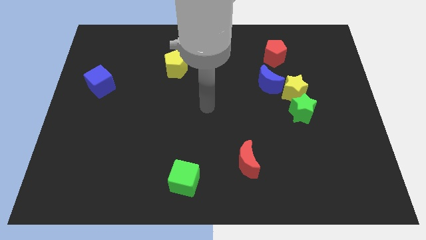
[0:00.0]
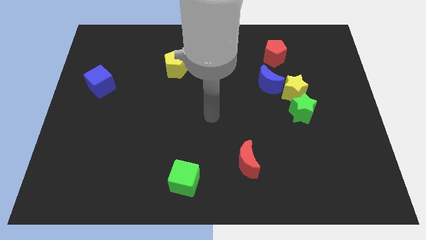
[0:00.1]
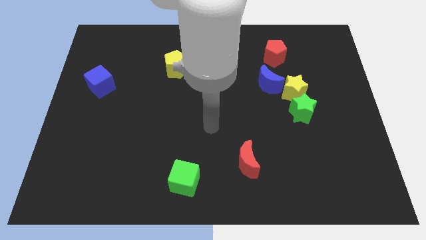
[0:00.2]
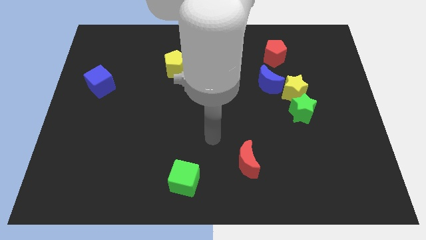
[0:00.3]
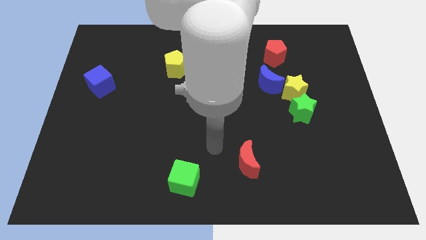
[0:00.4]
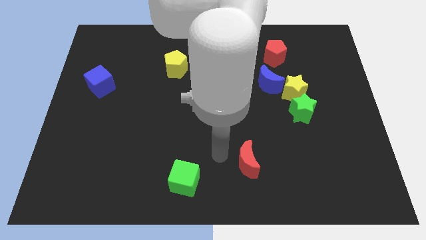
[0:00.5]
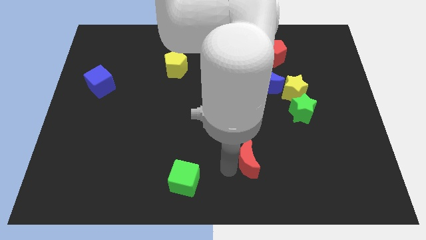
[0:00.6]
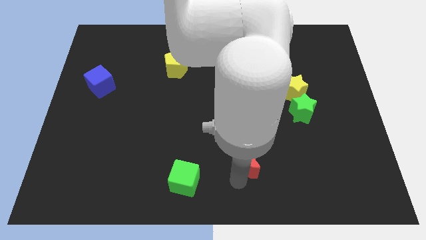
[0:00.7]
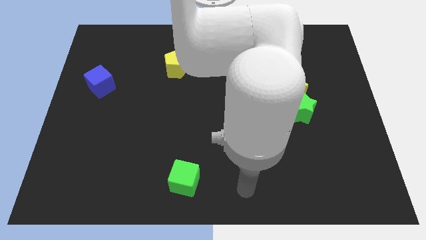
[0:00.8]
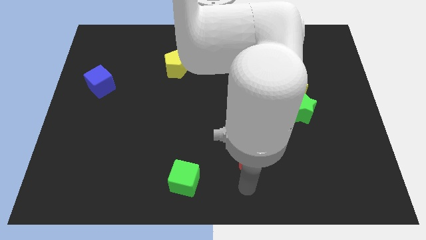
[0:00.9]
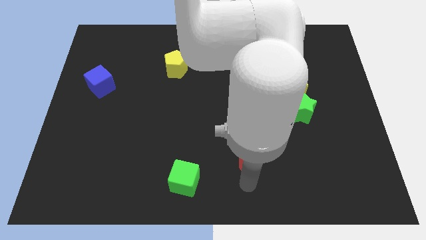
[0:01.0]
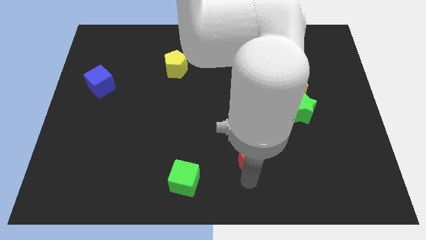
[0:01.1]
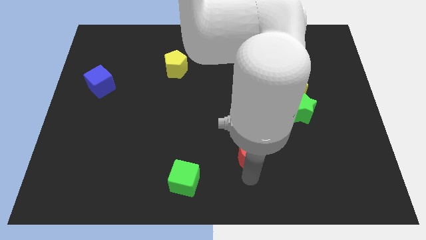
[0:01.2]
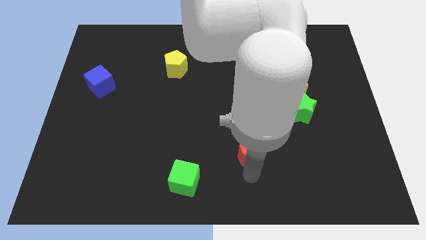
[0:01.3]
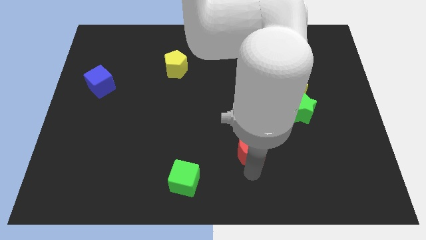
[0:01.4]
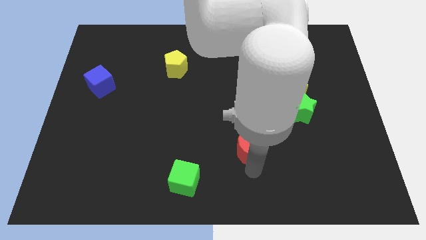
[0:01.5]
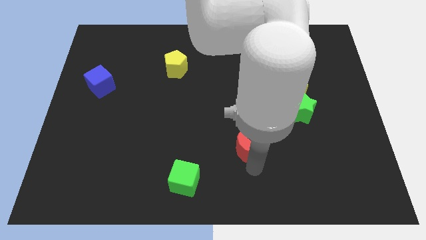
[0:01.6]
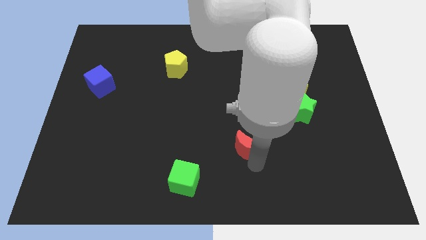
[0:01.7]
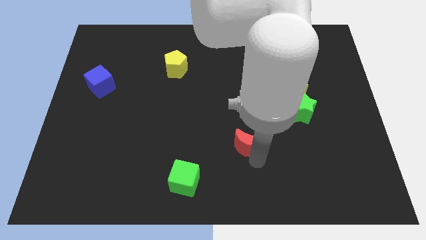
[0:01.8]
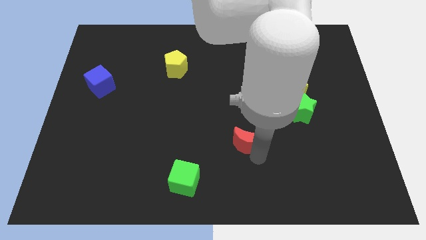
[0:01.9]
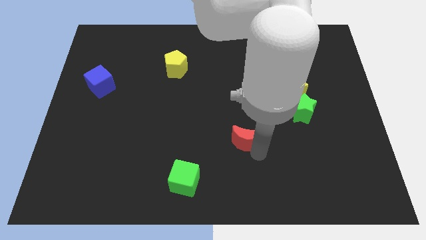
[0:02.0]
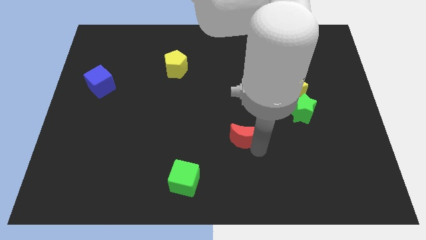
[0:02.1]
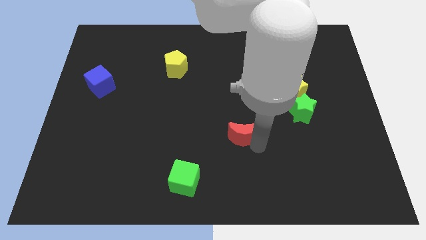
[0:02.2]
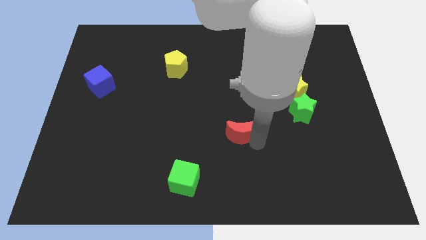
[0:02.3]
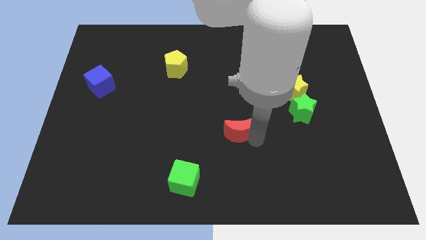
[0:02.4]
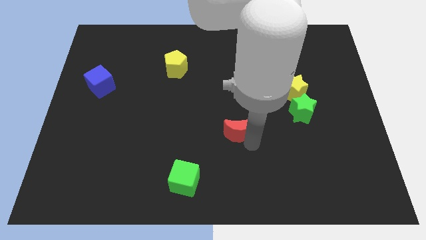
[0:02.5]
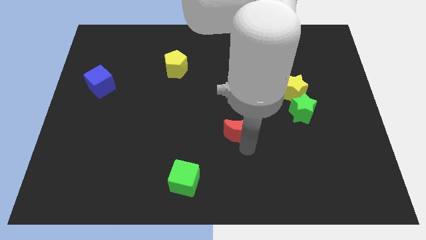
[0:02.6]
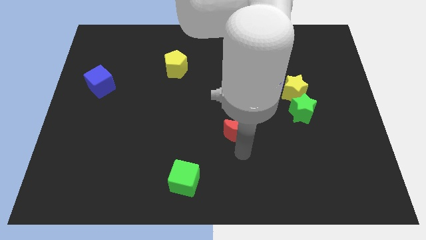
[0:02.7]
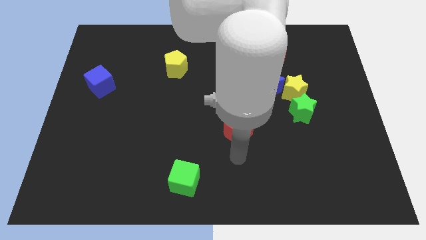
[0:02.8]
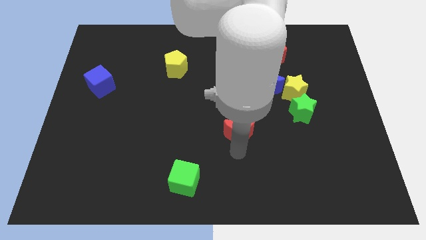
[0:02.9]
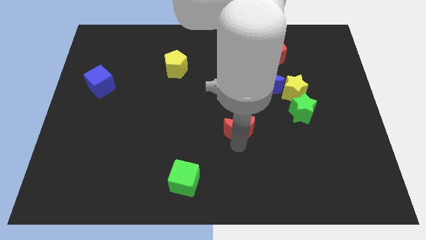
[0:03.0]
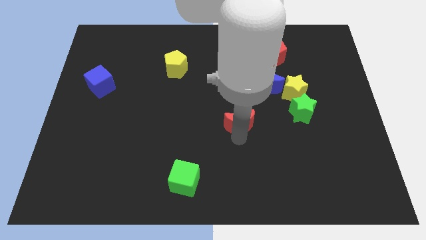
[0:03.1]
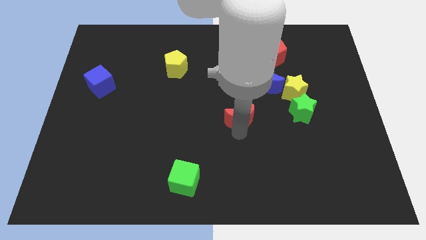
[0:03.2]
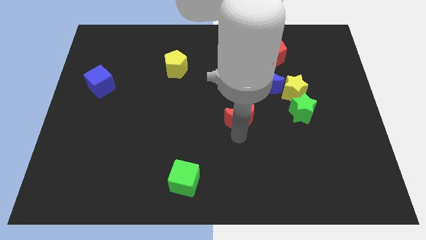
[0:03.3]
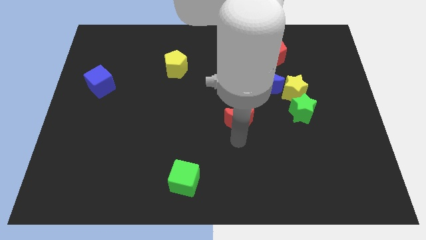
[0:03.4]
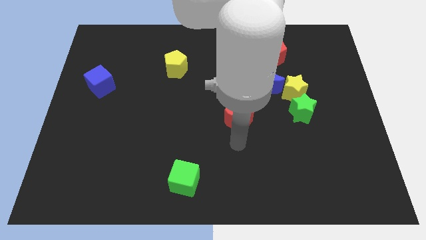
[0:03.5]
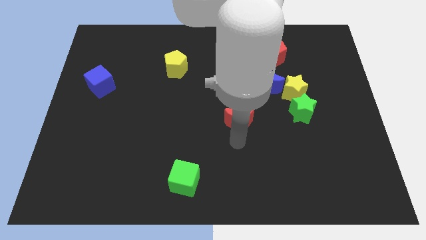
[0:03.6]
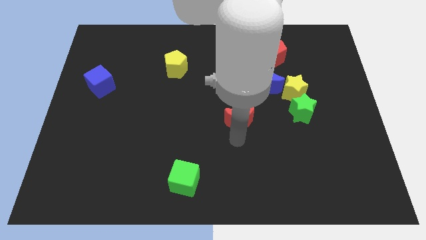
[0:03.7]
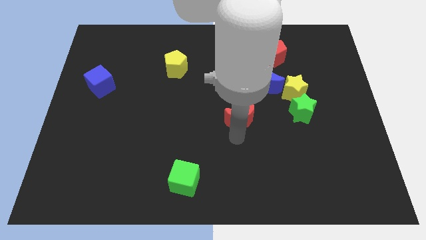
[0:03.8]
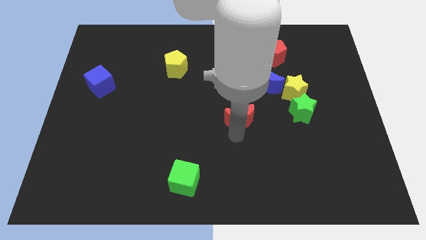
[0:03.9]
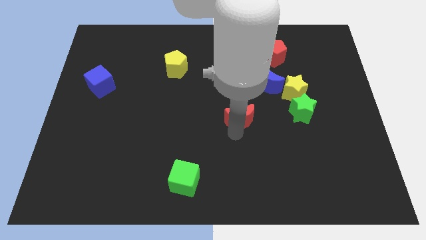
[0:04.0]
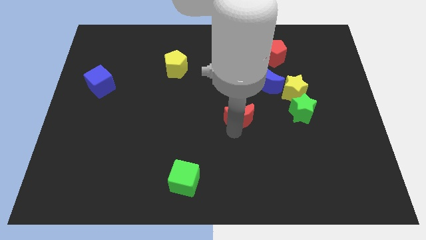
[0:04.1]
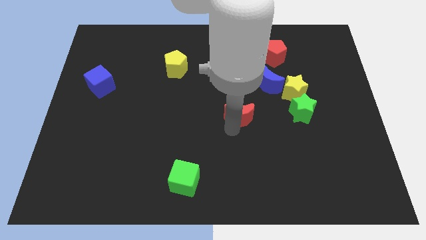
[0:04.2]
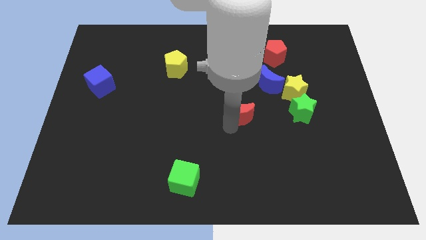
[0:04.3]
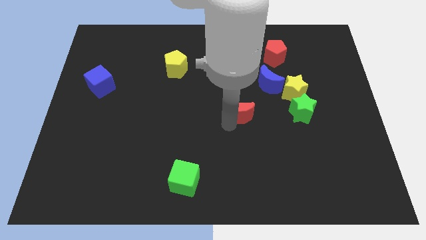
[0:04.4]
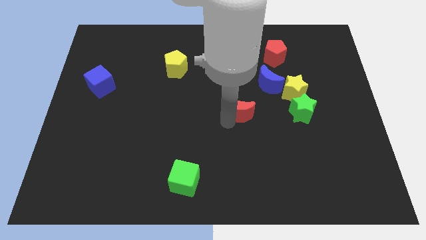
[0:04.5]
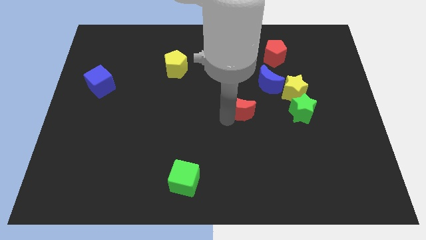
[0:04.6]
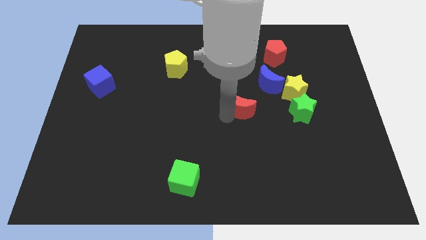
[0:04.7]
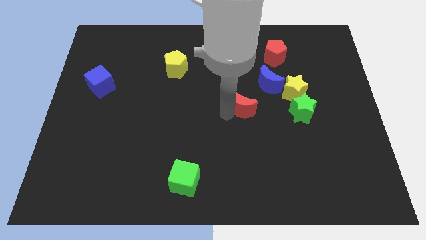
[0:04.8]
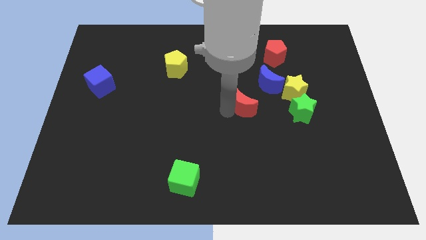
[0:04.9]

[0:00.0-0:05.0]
push the red moon just left of the yellow star

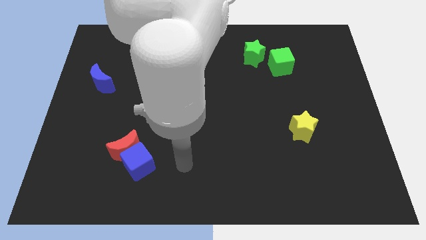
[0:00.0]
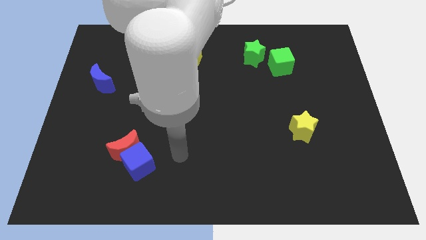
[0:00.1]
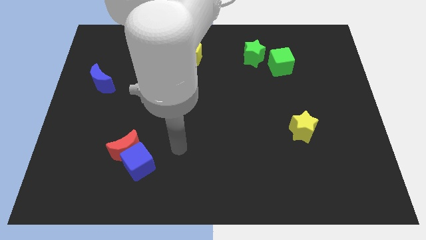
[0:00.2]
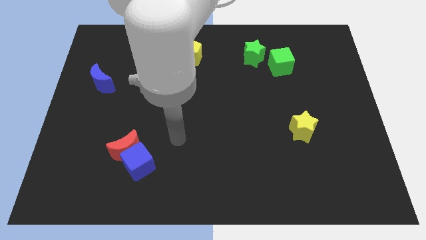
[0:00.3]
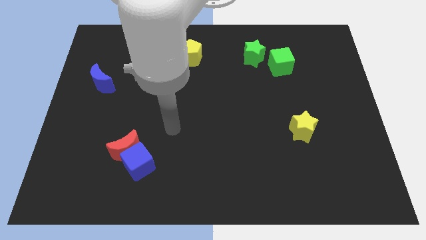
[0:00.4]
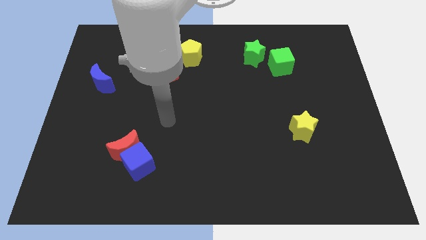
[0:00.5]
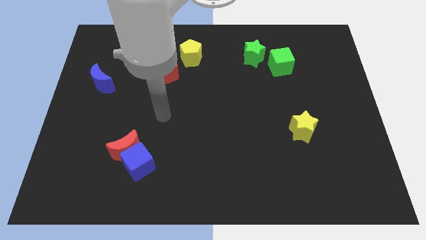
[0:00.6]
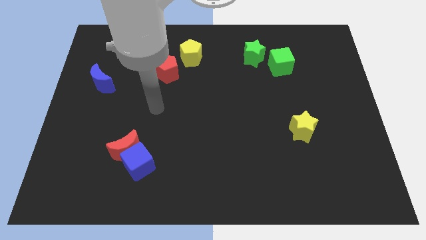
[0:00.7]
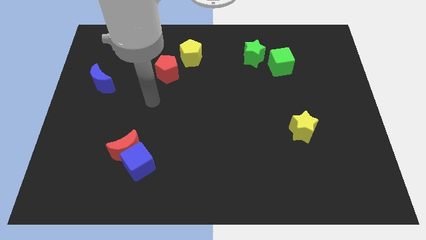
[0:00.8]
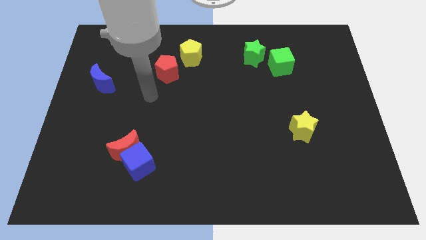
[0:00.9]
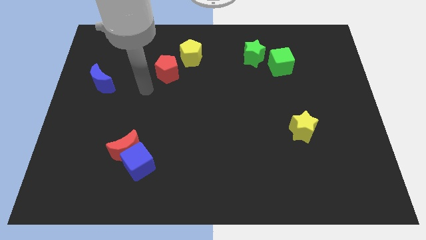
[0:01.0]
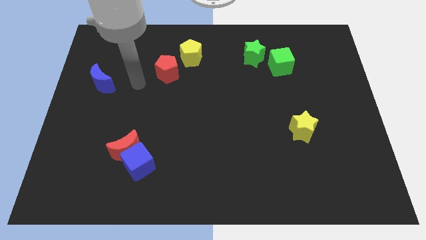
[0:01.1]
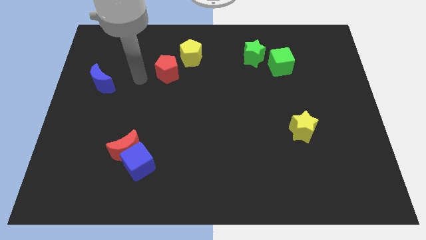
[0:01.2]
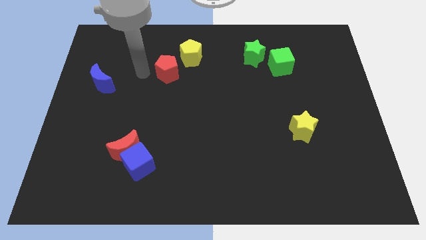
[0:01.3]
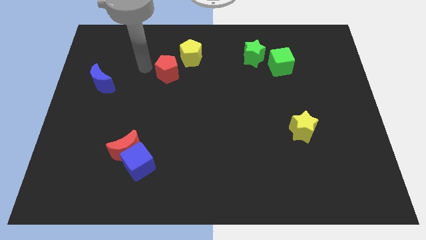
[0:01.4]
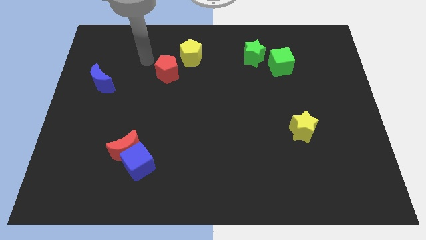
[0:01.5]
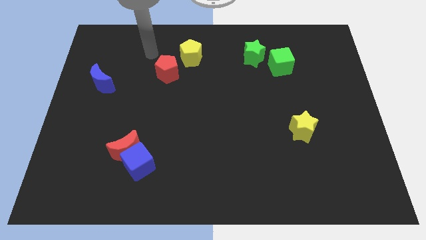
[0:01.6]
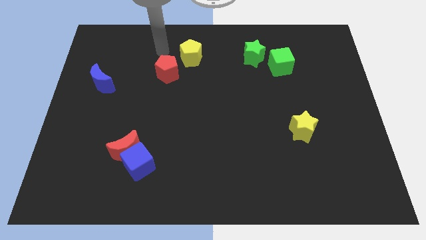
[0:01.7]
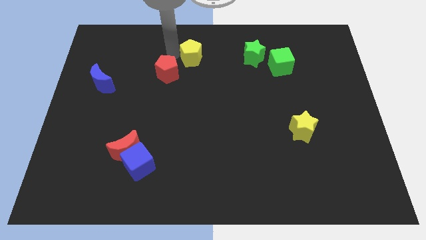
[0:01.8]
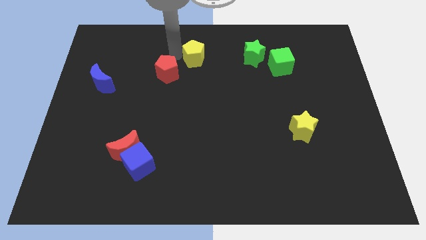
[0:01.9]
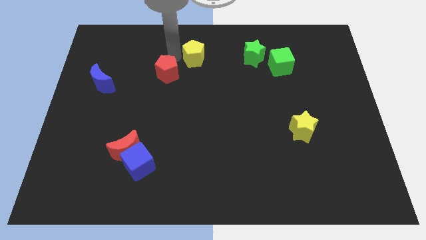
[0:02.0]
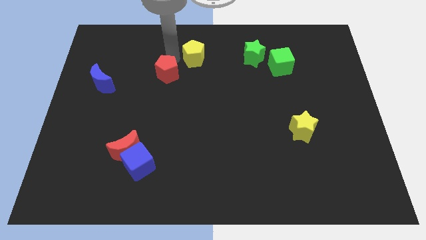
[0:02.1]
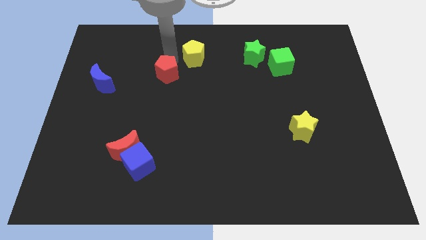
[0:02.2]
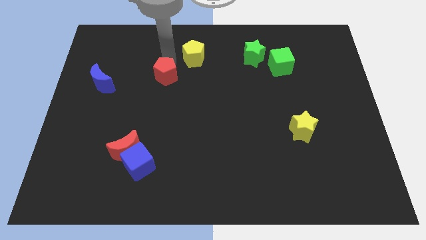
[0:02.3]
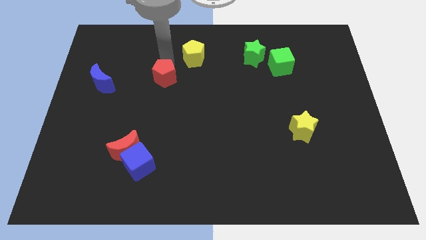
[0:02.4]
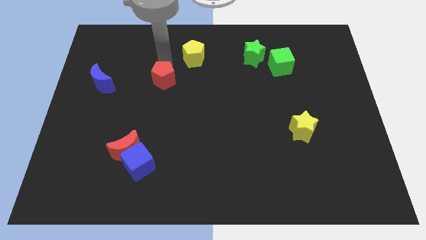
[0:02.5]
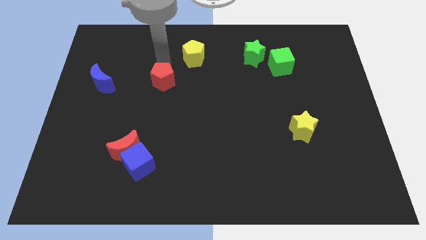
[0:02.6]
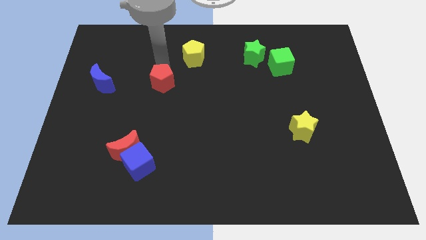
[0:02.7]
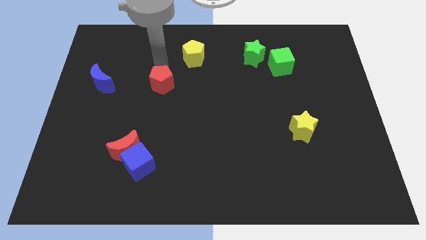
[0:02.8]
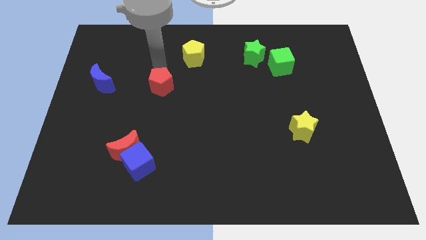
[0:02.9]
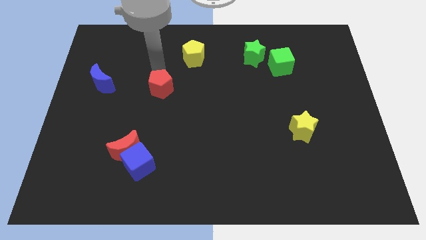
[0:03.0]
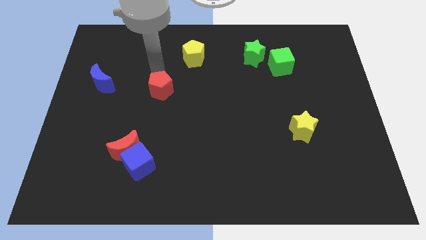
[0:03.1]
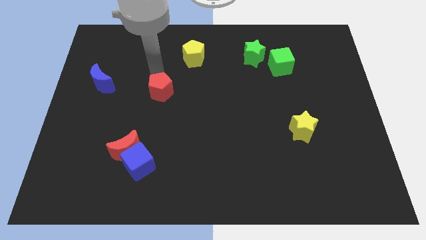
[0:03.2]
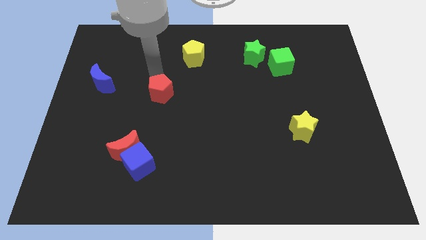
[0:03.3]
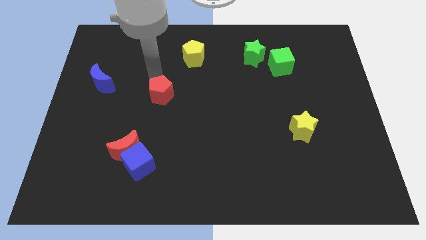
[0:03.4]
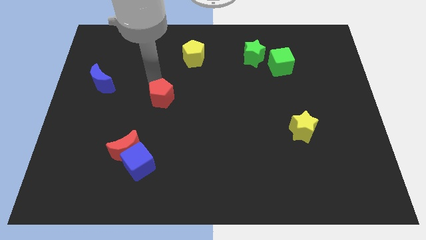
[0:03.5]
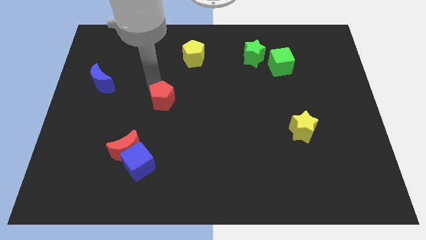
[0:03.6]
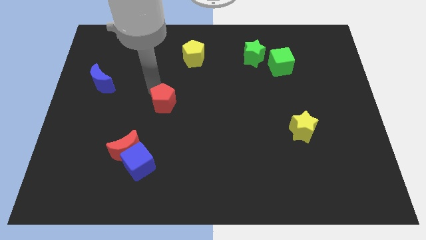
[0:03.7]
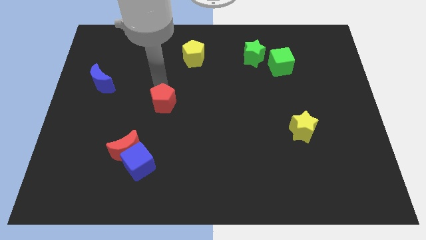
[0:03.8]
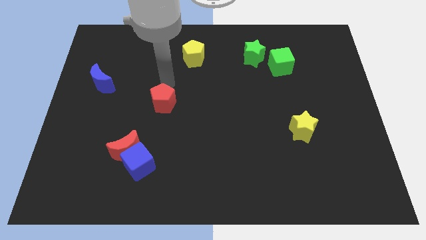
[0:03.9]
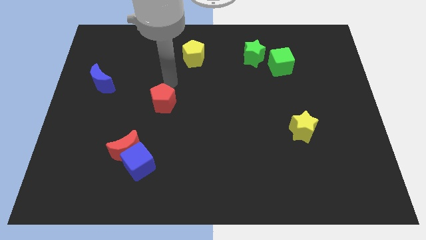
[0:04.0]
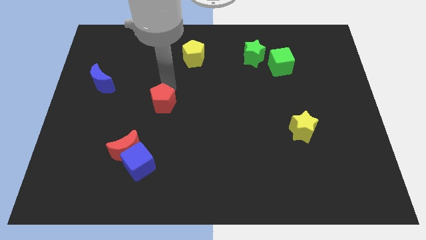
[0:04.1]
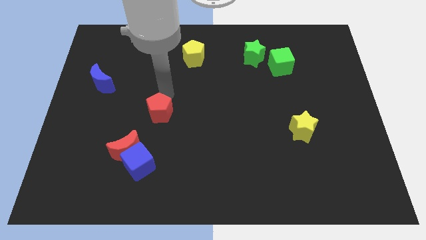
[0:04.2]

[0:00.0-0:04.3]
slide the red pentagon to the top right side of the red moon
